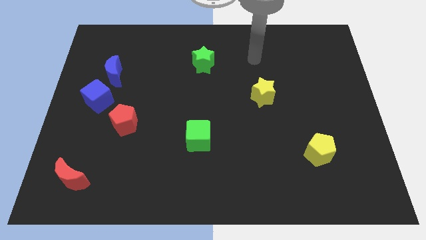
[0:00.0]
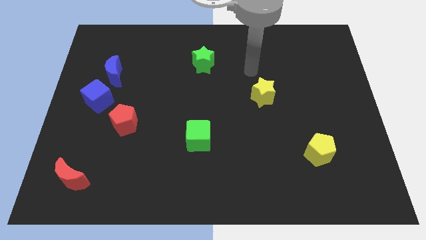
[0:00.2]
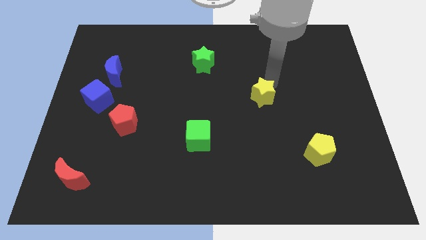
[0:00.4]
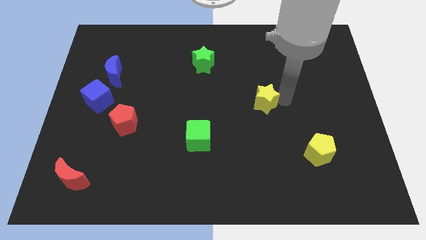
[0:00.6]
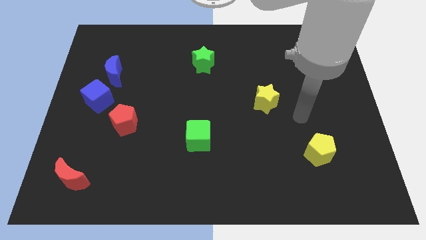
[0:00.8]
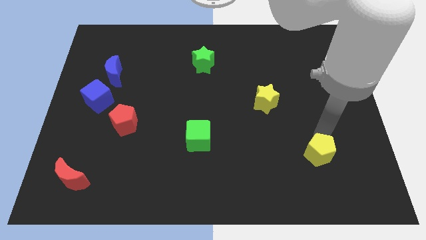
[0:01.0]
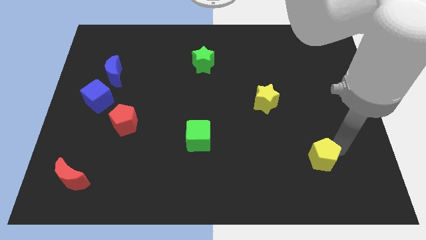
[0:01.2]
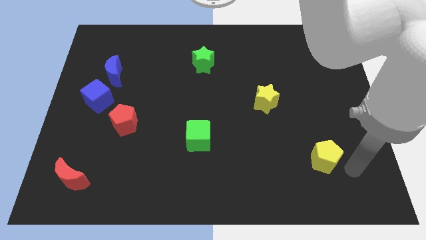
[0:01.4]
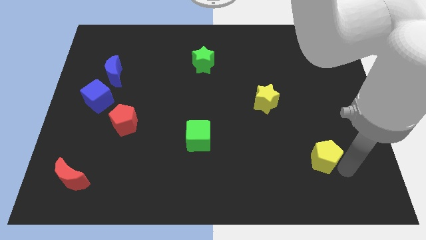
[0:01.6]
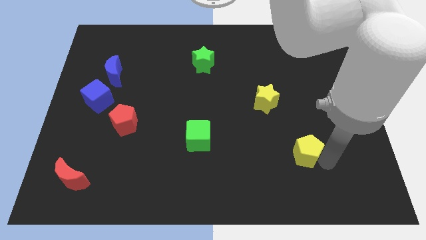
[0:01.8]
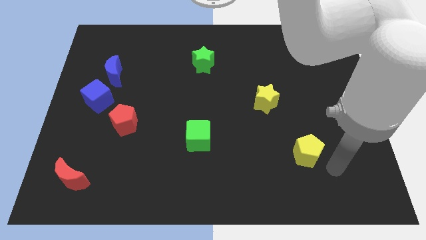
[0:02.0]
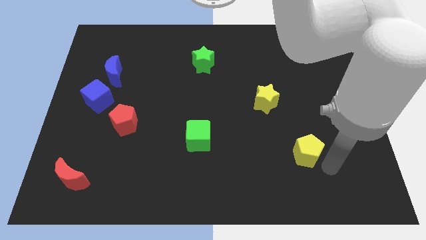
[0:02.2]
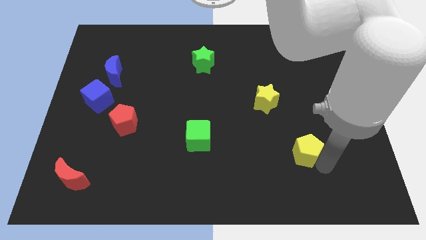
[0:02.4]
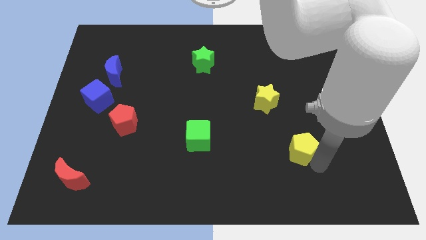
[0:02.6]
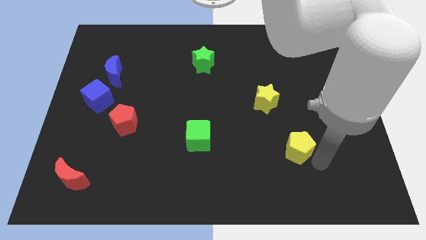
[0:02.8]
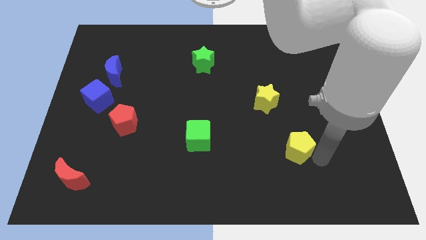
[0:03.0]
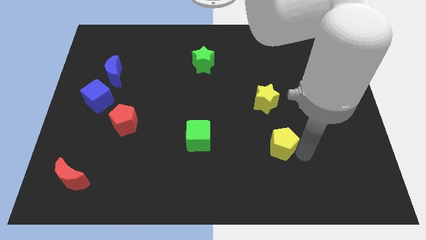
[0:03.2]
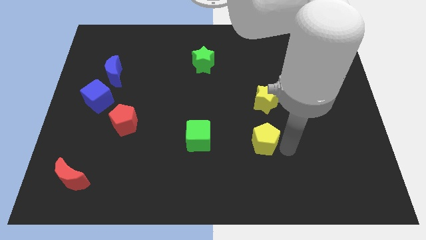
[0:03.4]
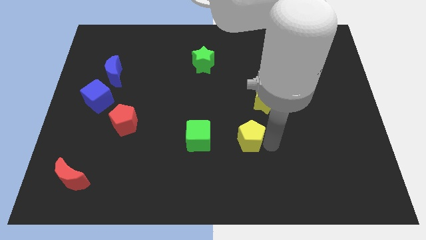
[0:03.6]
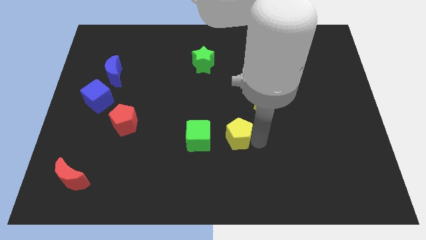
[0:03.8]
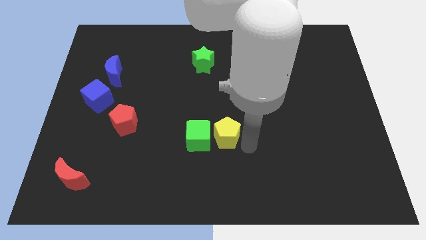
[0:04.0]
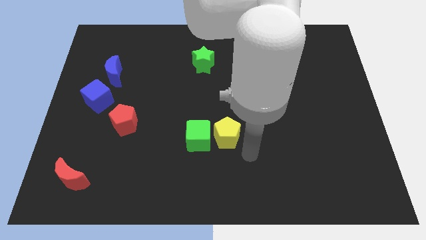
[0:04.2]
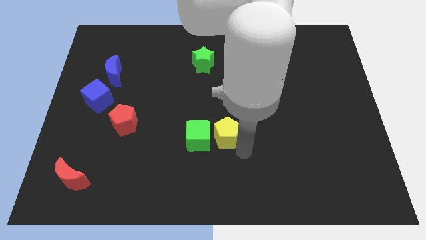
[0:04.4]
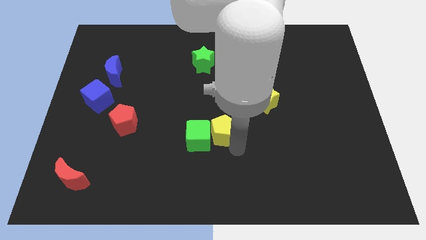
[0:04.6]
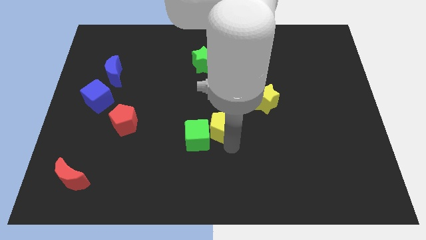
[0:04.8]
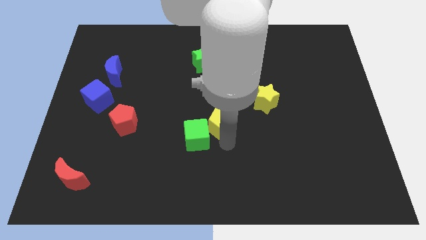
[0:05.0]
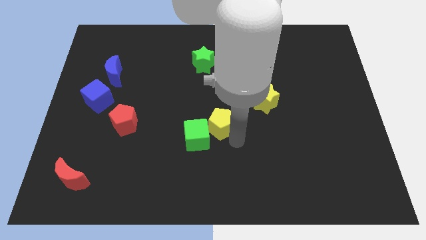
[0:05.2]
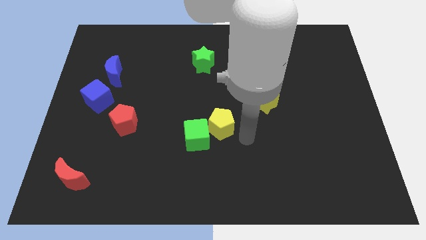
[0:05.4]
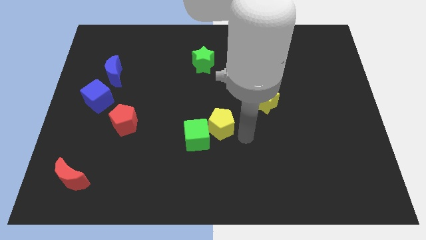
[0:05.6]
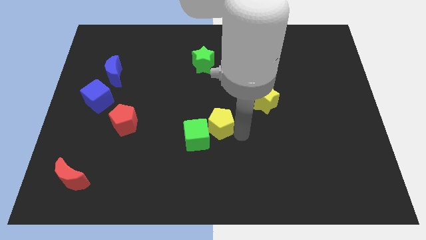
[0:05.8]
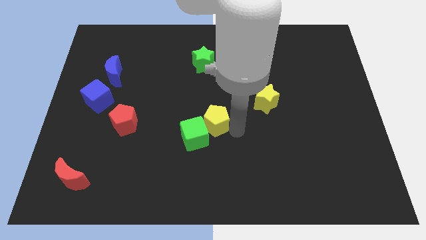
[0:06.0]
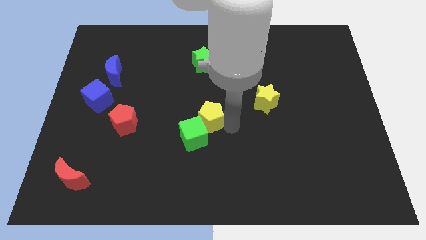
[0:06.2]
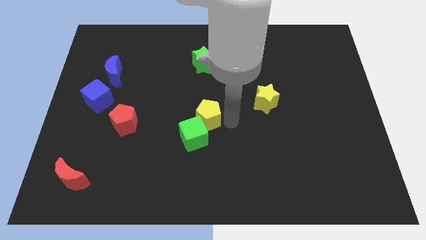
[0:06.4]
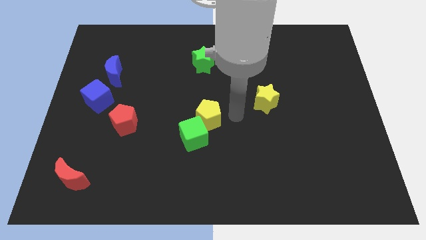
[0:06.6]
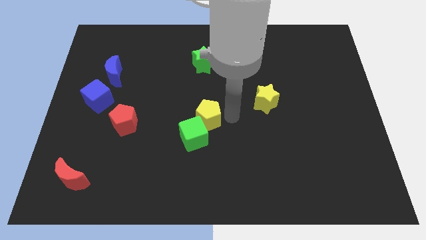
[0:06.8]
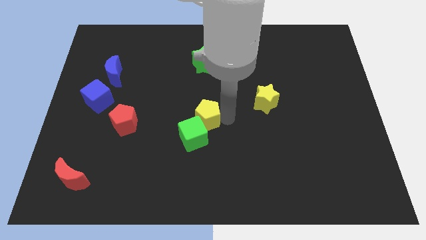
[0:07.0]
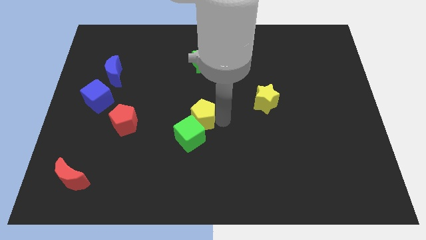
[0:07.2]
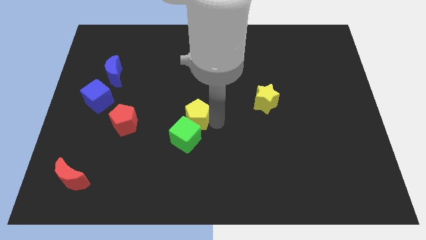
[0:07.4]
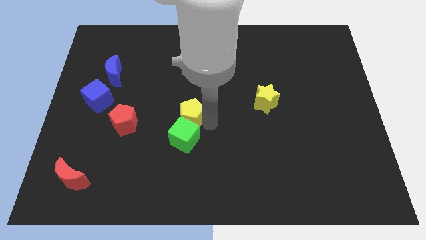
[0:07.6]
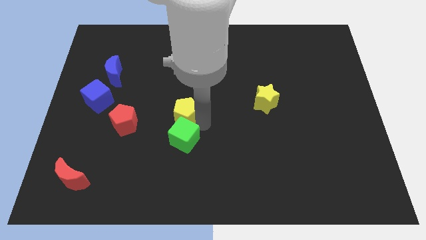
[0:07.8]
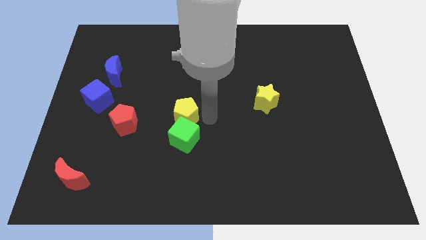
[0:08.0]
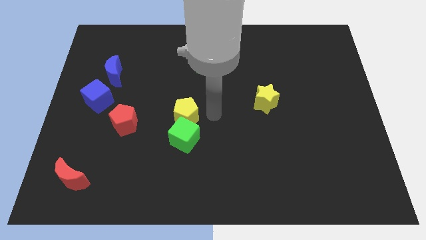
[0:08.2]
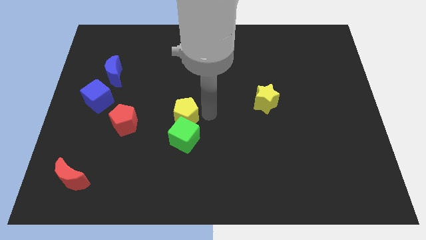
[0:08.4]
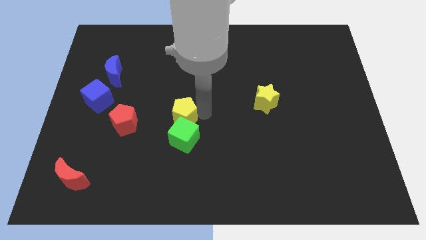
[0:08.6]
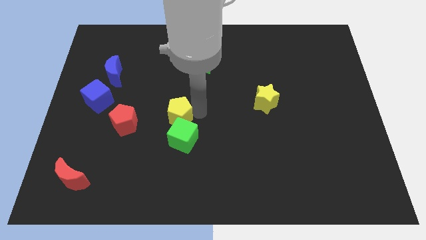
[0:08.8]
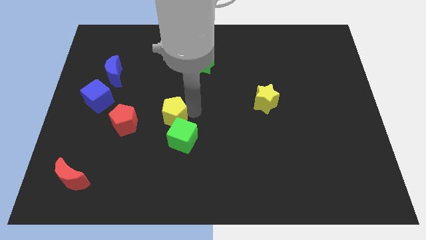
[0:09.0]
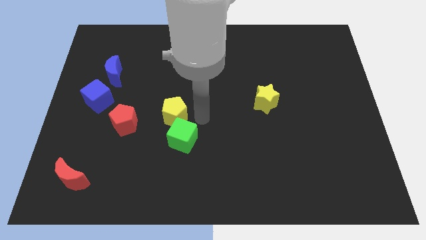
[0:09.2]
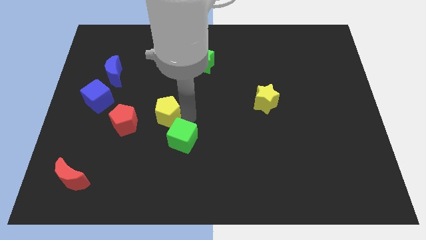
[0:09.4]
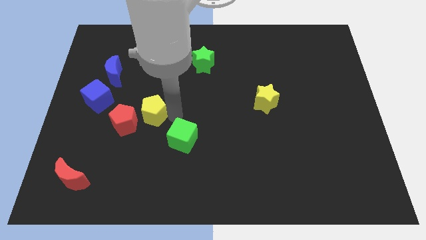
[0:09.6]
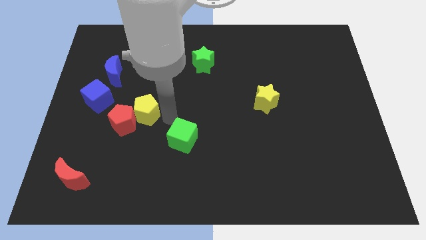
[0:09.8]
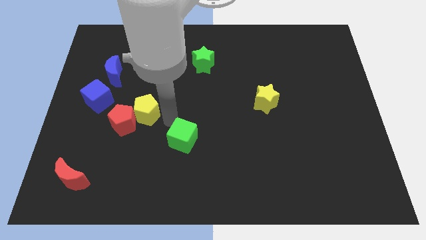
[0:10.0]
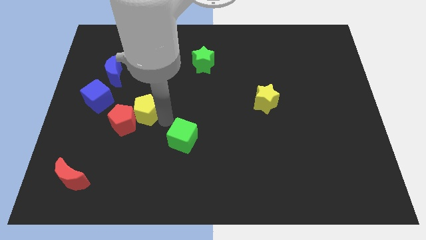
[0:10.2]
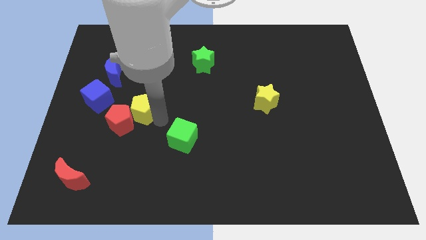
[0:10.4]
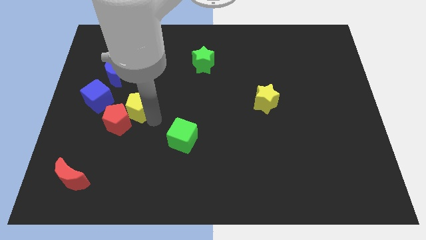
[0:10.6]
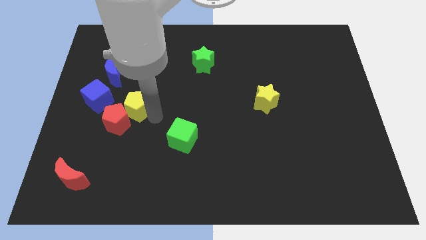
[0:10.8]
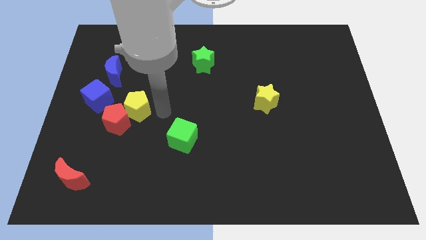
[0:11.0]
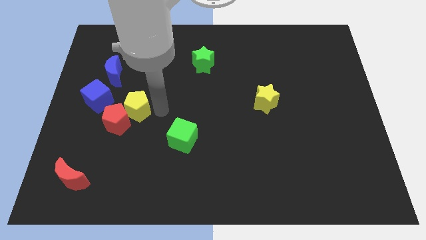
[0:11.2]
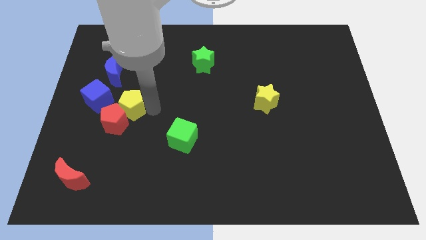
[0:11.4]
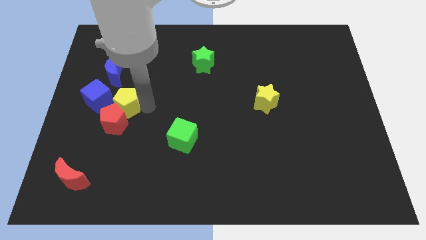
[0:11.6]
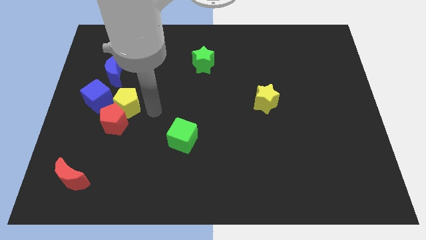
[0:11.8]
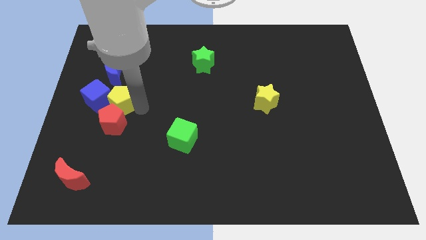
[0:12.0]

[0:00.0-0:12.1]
move the yellow pentagon close to the blue cube

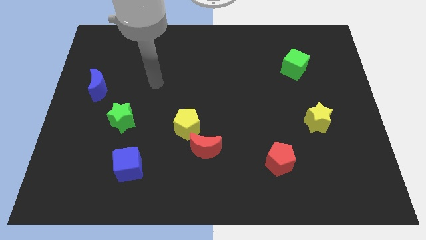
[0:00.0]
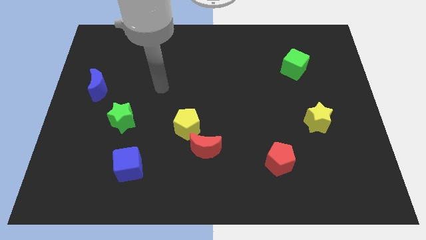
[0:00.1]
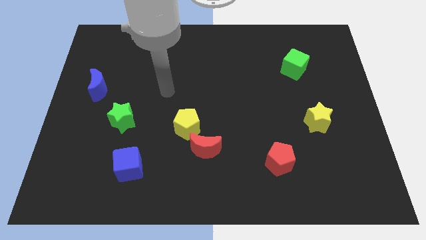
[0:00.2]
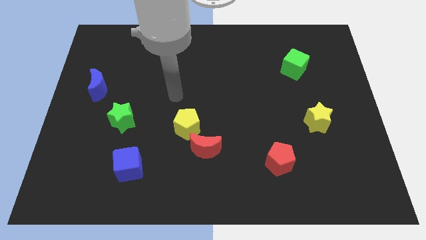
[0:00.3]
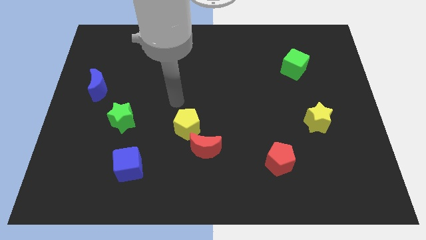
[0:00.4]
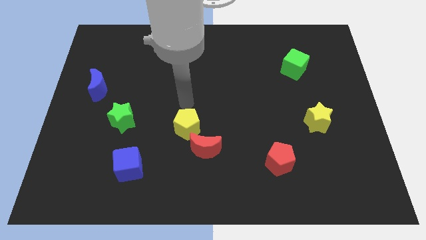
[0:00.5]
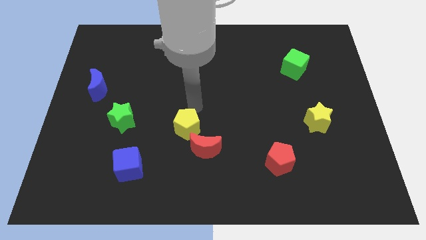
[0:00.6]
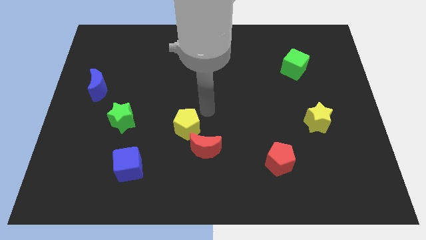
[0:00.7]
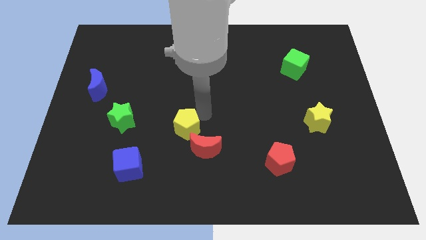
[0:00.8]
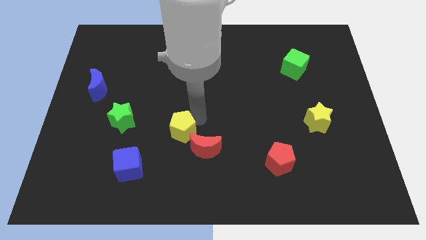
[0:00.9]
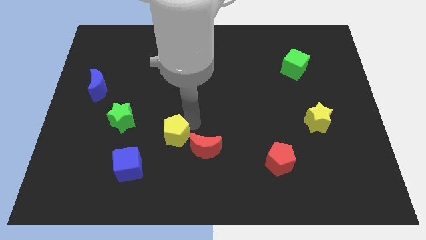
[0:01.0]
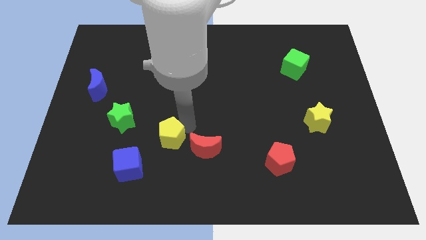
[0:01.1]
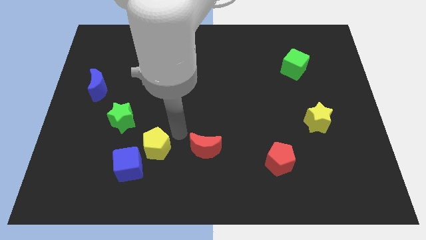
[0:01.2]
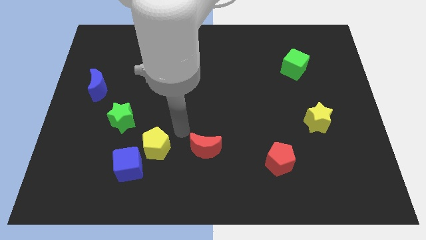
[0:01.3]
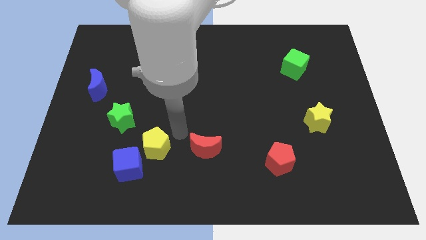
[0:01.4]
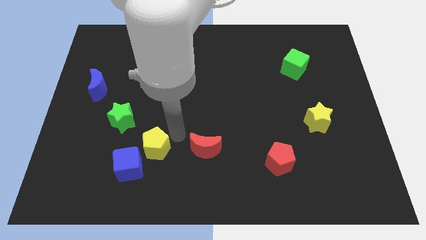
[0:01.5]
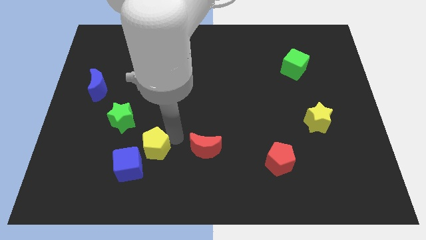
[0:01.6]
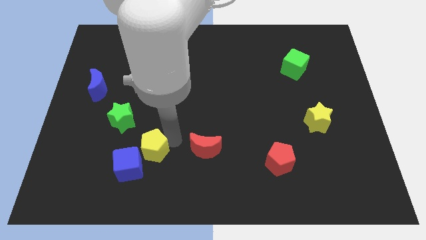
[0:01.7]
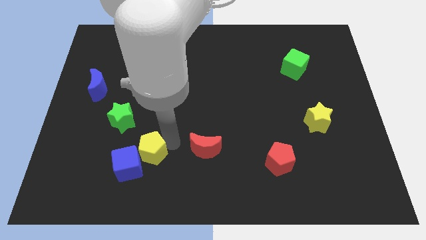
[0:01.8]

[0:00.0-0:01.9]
slide the yellow pentagon close to the blue cube
